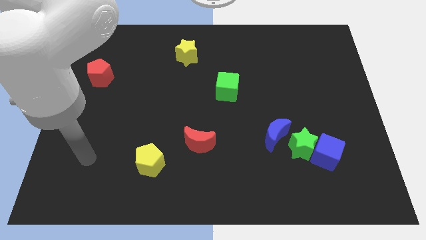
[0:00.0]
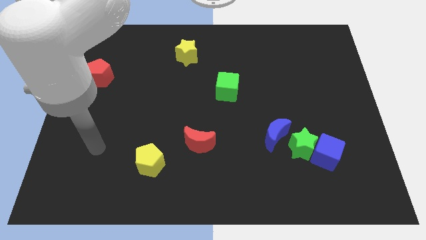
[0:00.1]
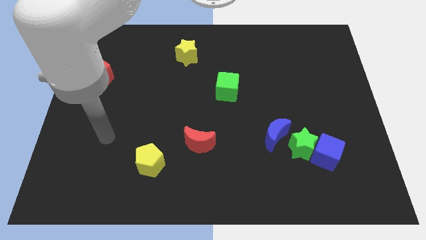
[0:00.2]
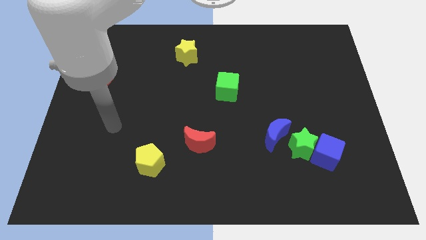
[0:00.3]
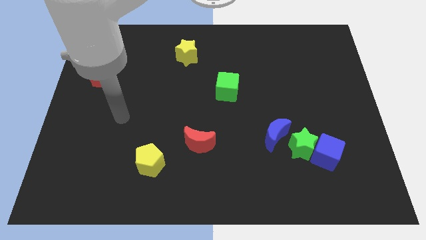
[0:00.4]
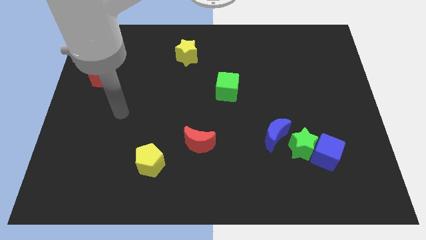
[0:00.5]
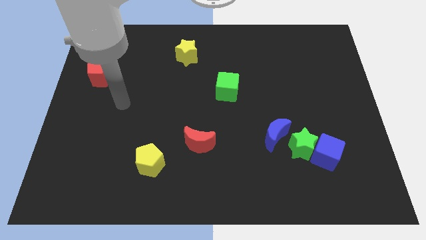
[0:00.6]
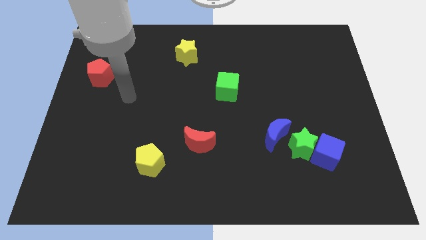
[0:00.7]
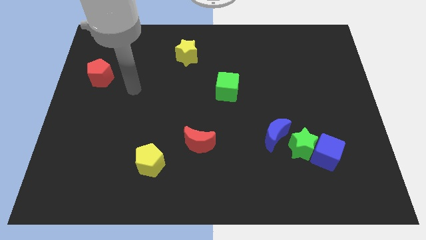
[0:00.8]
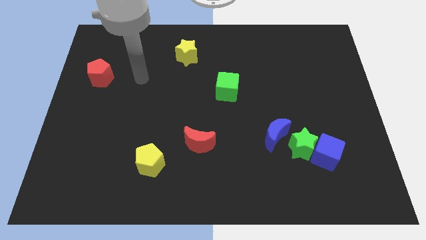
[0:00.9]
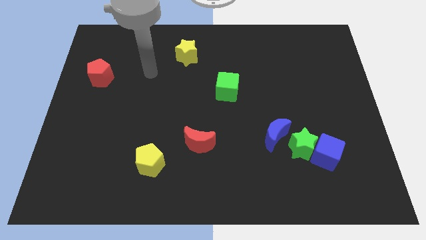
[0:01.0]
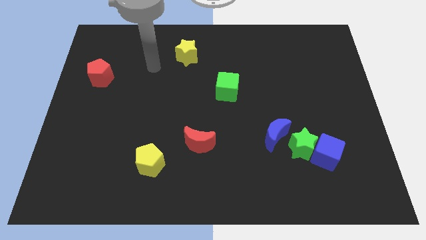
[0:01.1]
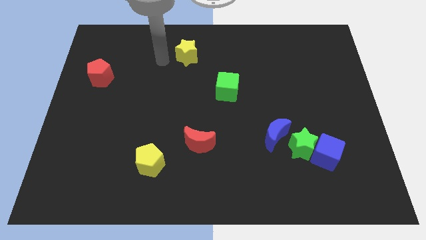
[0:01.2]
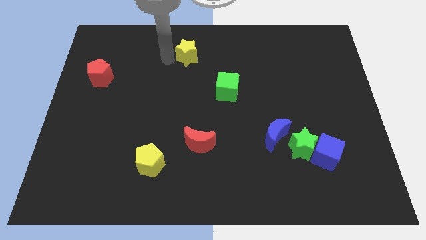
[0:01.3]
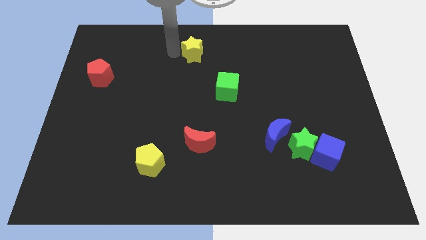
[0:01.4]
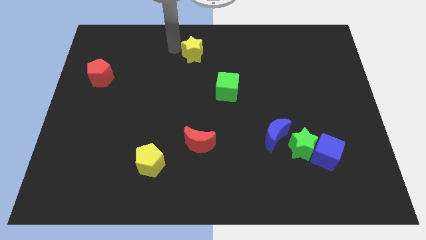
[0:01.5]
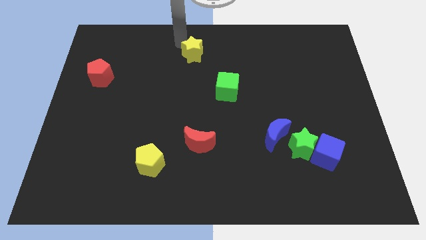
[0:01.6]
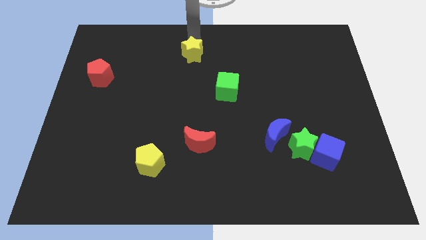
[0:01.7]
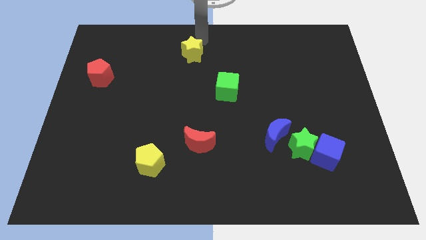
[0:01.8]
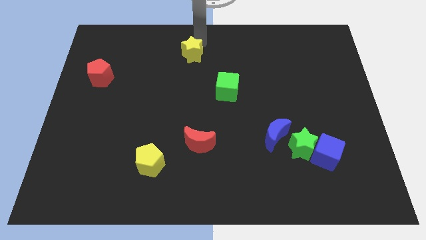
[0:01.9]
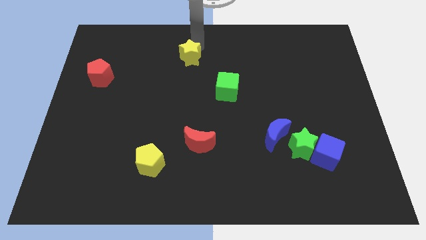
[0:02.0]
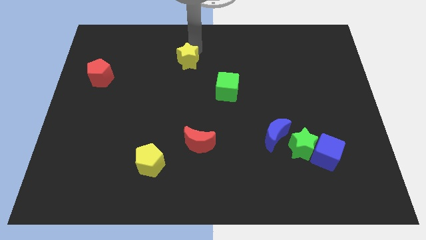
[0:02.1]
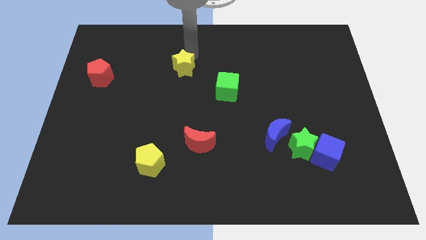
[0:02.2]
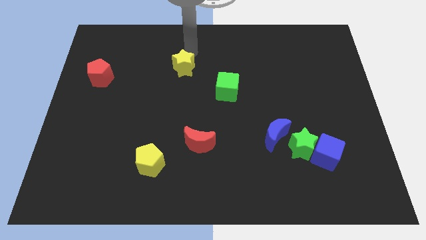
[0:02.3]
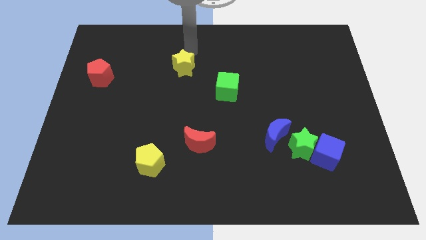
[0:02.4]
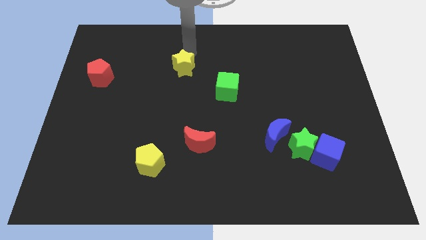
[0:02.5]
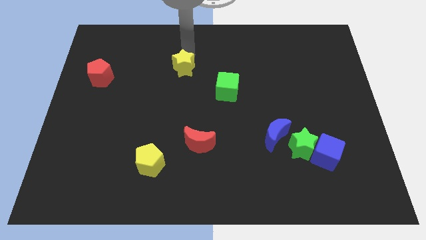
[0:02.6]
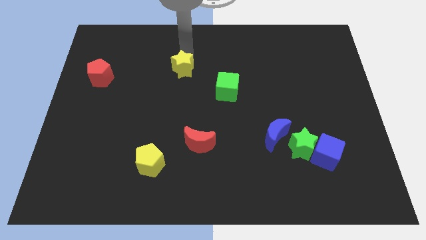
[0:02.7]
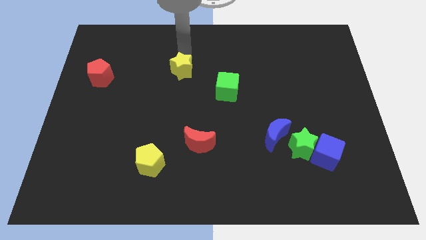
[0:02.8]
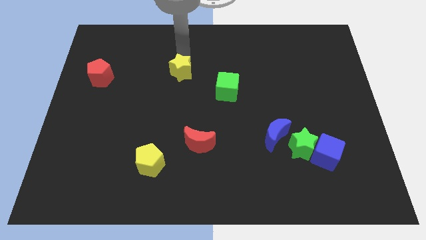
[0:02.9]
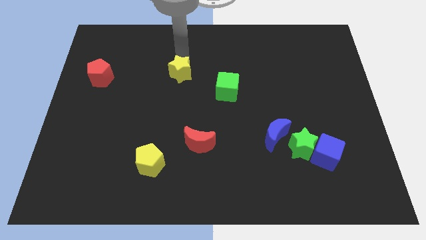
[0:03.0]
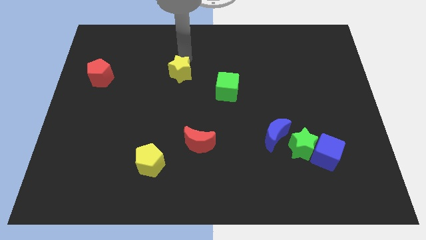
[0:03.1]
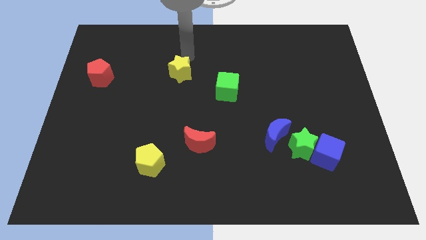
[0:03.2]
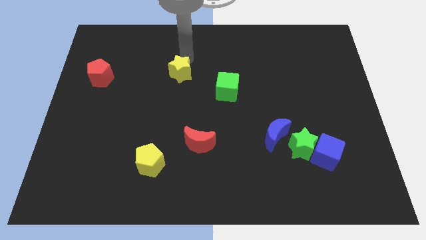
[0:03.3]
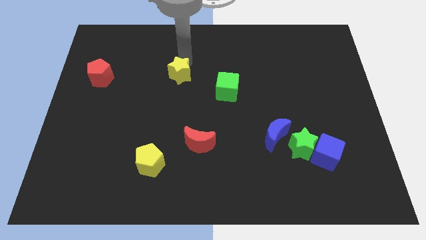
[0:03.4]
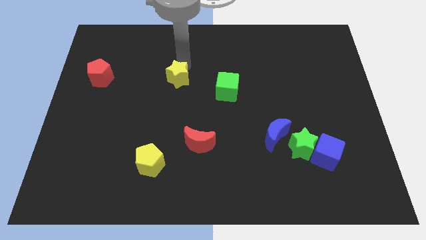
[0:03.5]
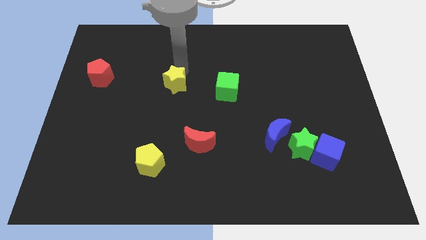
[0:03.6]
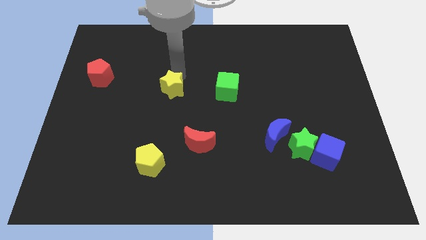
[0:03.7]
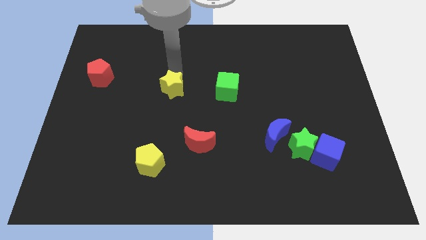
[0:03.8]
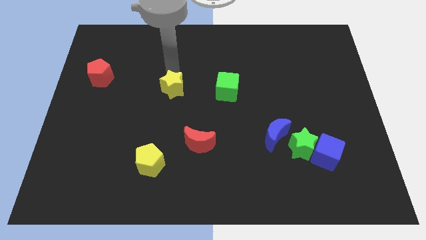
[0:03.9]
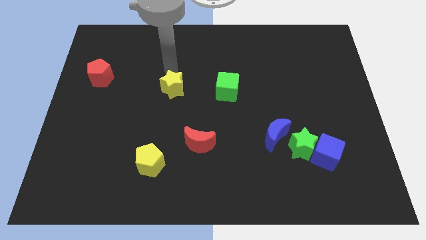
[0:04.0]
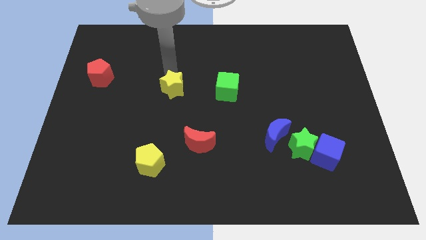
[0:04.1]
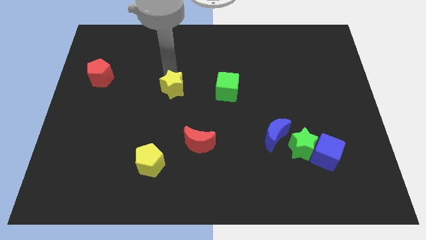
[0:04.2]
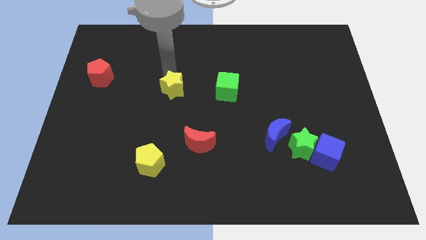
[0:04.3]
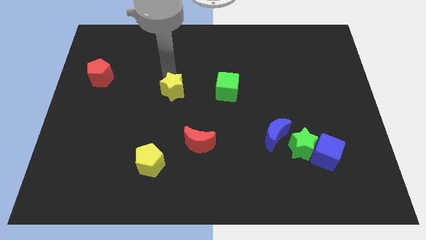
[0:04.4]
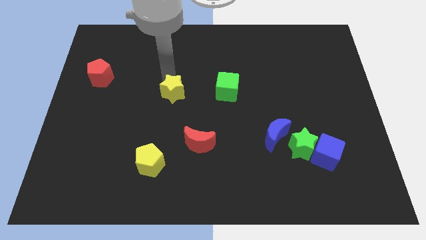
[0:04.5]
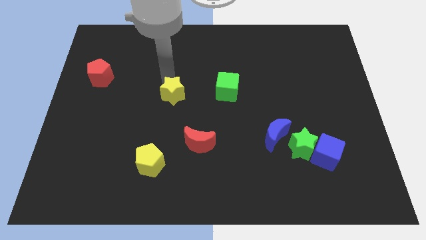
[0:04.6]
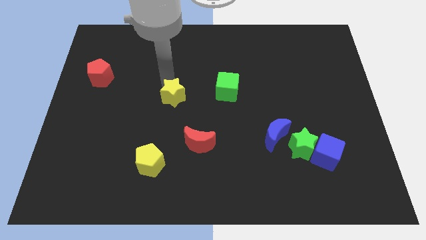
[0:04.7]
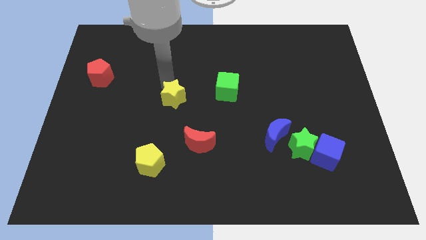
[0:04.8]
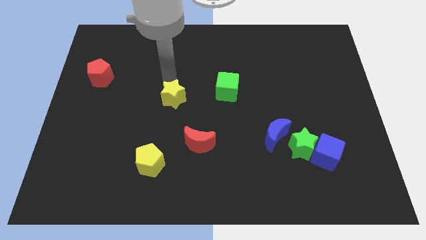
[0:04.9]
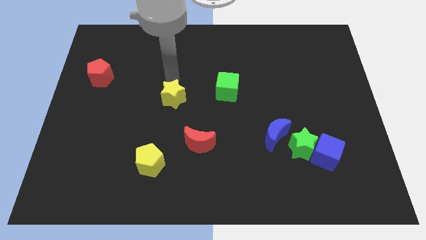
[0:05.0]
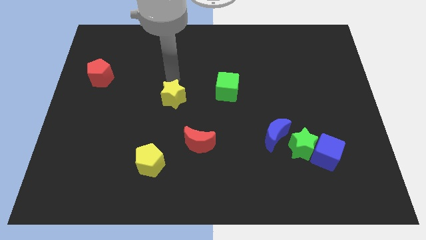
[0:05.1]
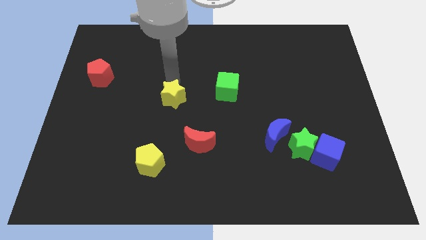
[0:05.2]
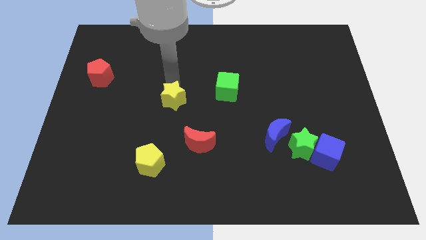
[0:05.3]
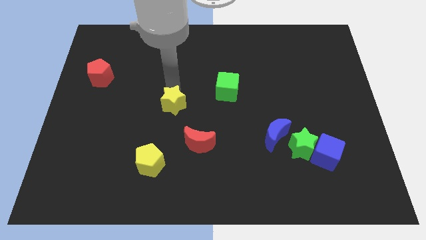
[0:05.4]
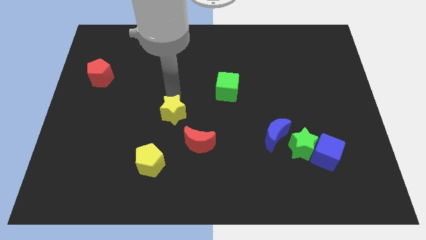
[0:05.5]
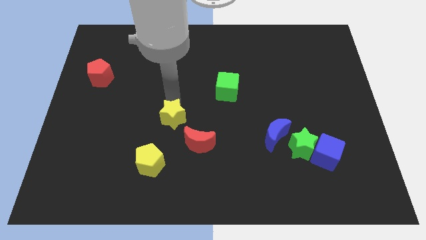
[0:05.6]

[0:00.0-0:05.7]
push the yellow star downwards

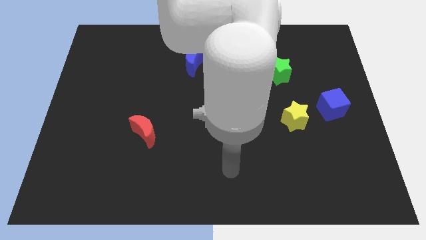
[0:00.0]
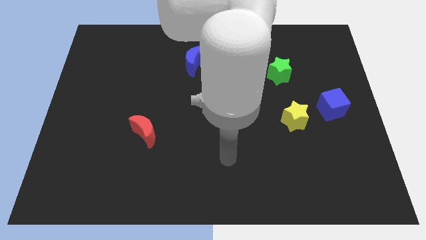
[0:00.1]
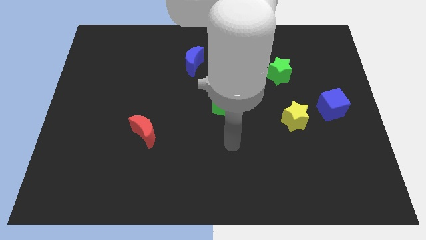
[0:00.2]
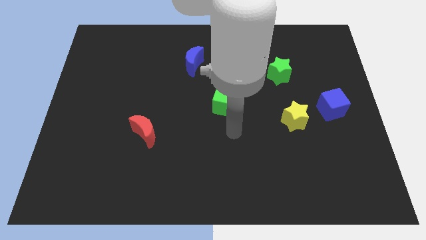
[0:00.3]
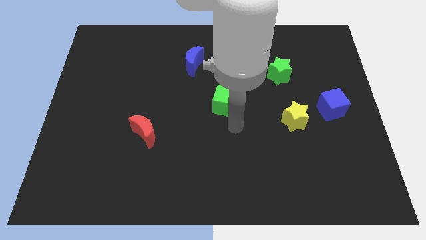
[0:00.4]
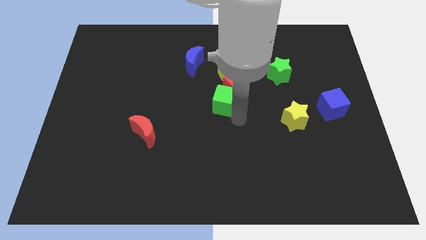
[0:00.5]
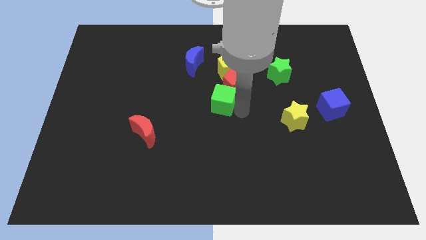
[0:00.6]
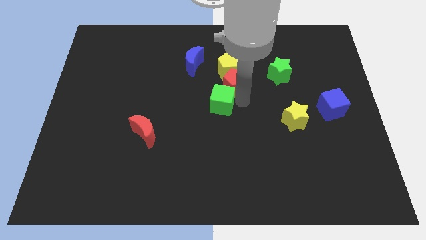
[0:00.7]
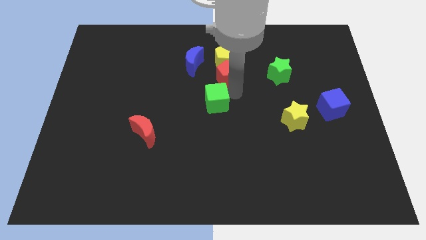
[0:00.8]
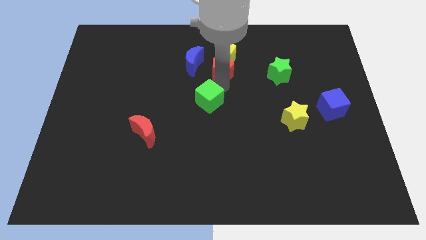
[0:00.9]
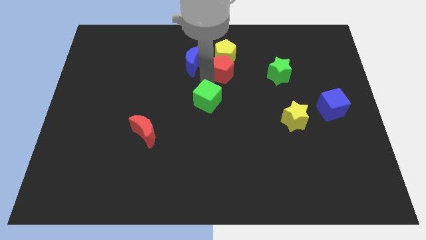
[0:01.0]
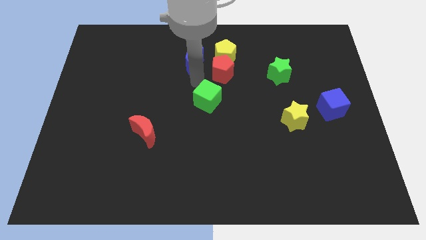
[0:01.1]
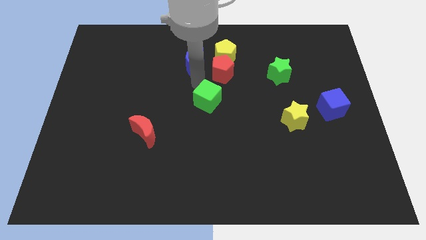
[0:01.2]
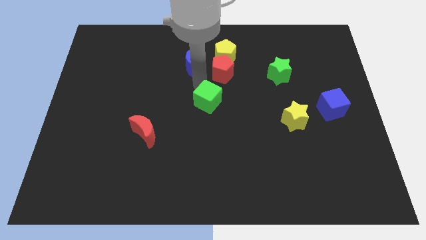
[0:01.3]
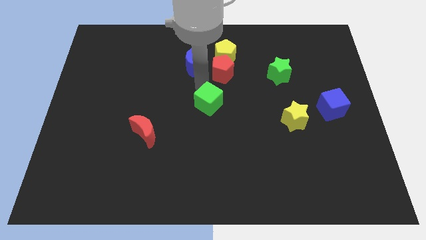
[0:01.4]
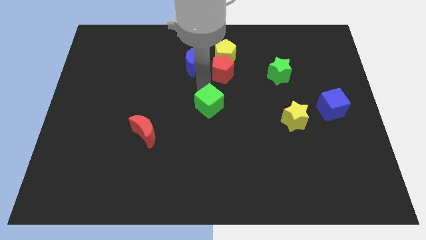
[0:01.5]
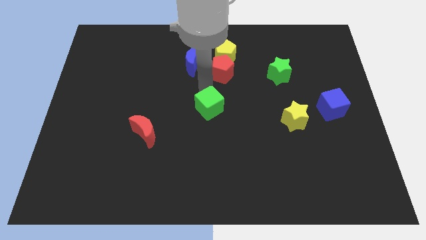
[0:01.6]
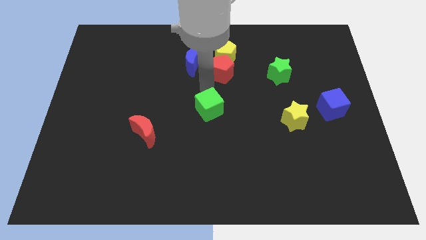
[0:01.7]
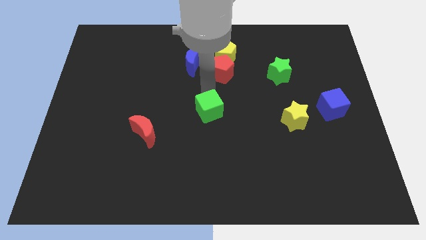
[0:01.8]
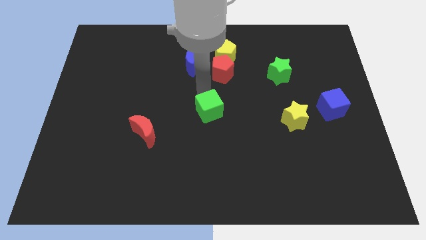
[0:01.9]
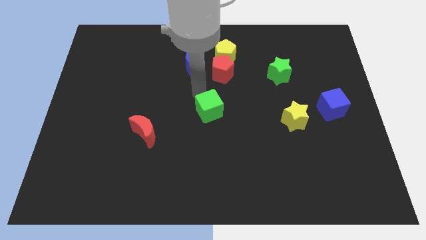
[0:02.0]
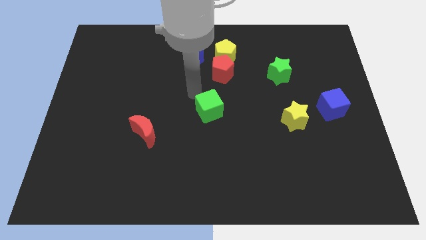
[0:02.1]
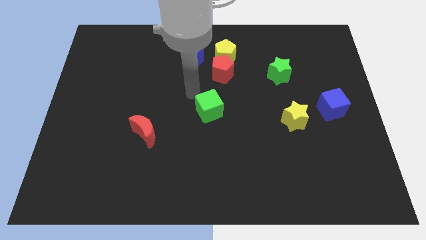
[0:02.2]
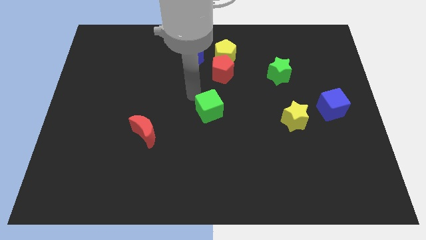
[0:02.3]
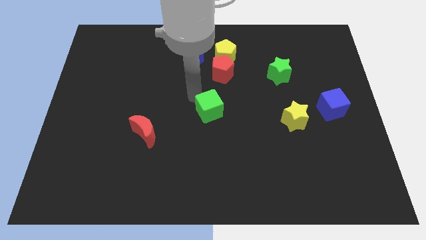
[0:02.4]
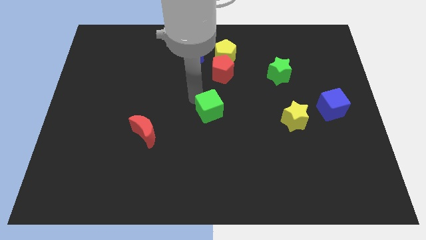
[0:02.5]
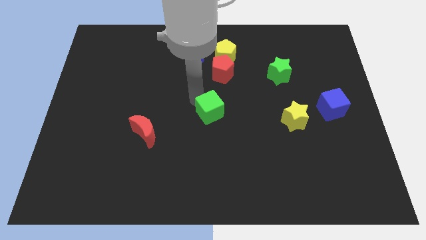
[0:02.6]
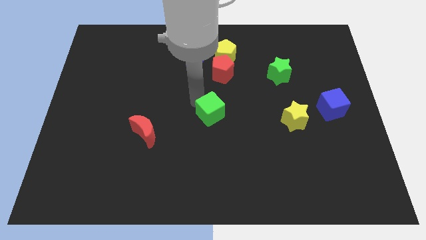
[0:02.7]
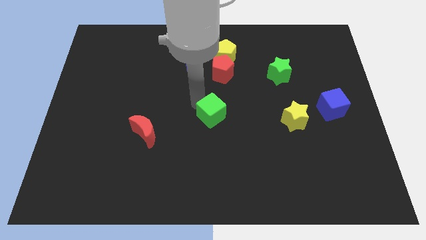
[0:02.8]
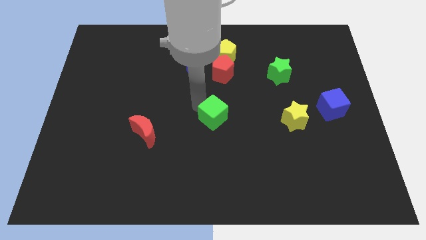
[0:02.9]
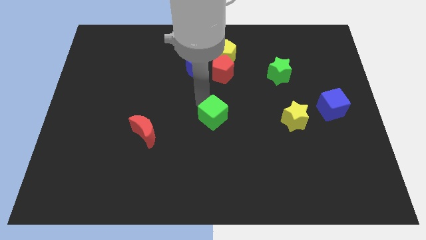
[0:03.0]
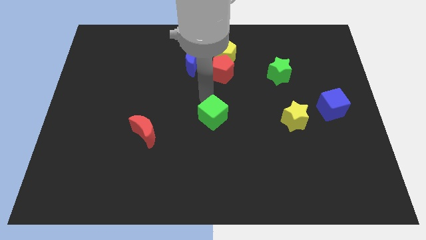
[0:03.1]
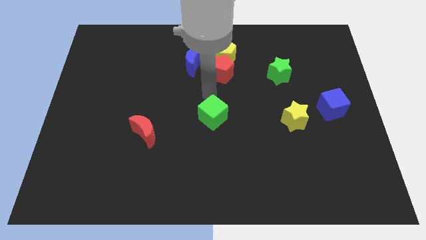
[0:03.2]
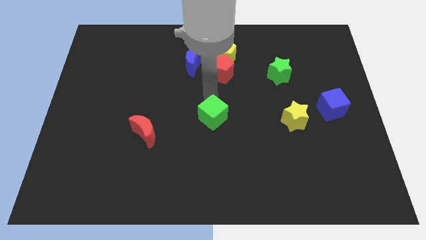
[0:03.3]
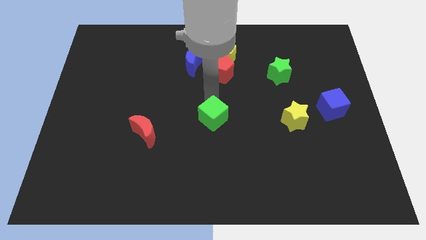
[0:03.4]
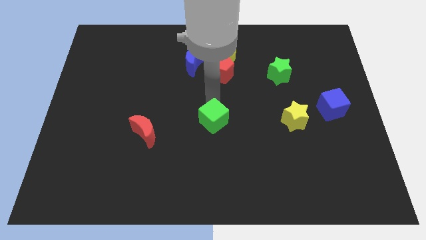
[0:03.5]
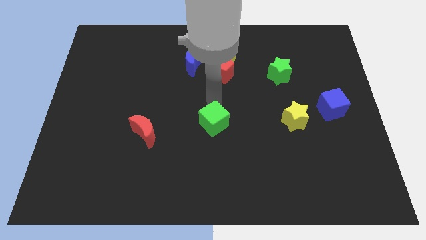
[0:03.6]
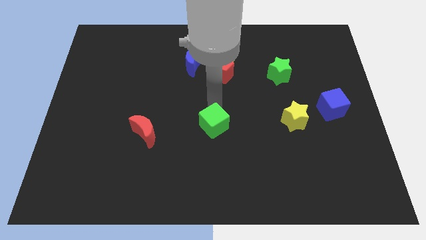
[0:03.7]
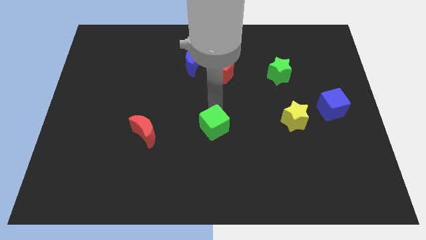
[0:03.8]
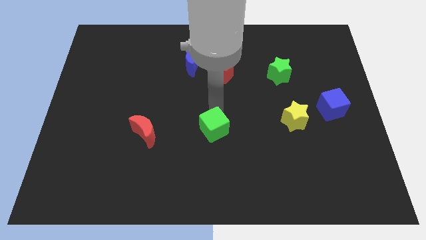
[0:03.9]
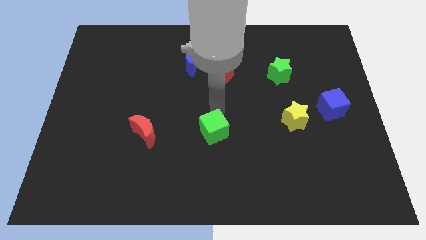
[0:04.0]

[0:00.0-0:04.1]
push the green cube a little bit down
